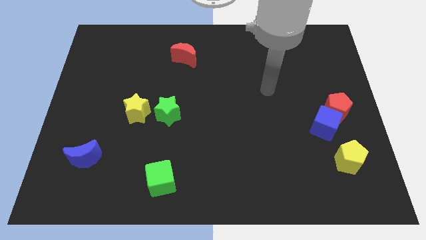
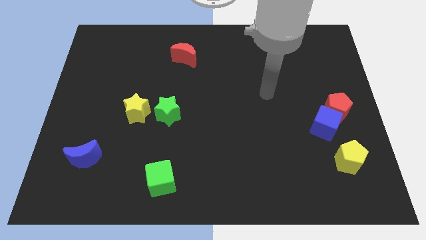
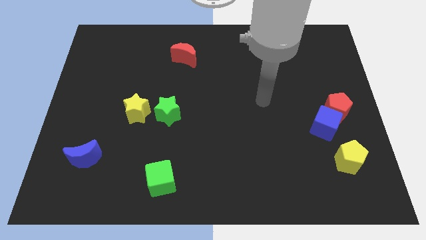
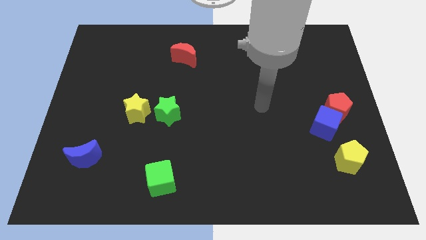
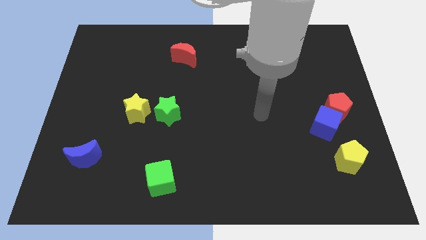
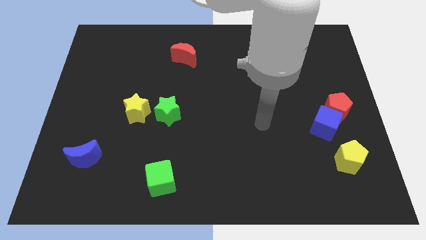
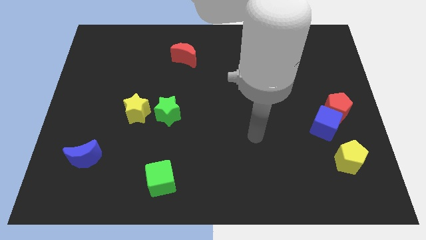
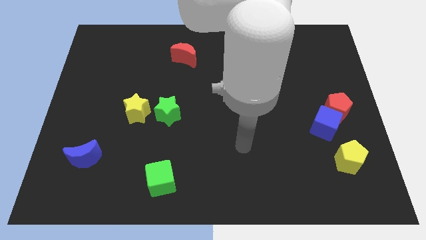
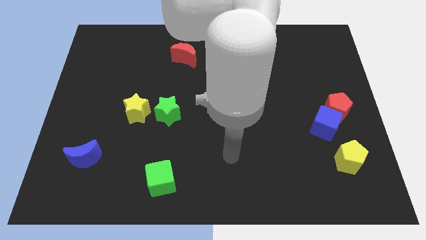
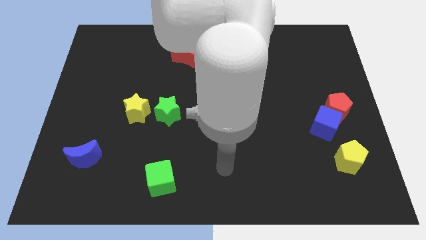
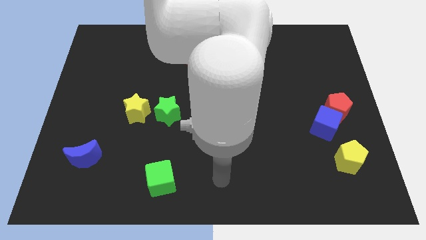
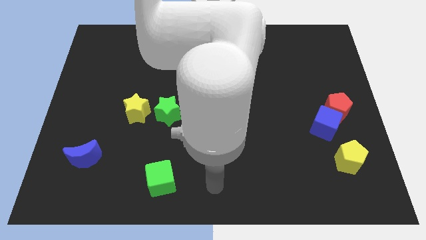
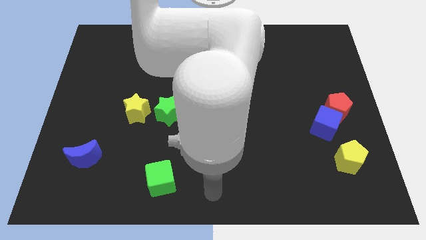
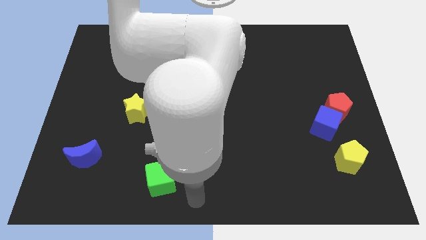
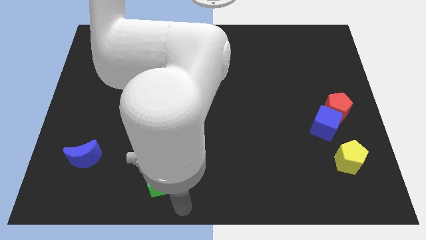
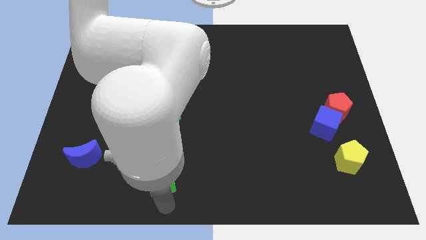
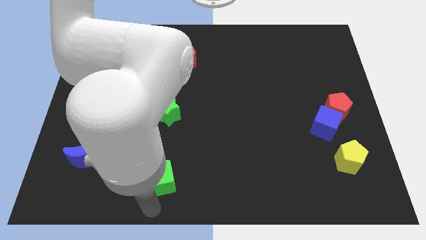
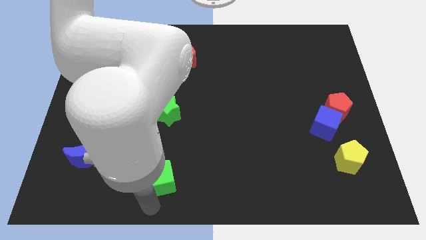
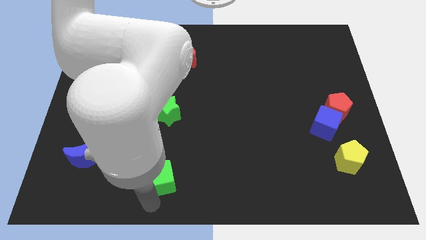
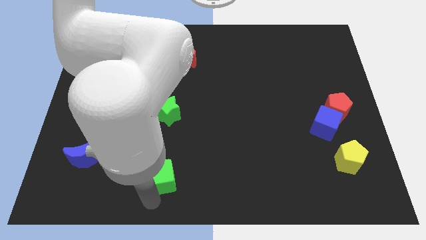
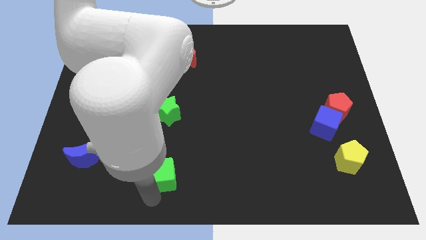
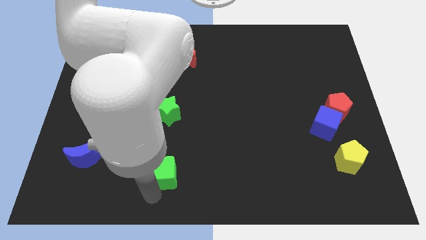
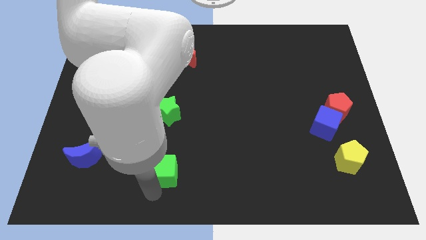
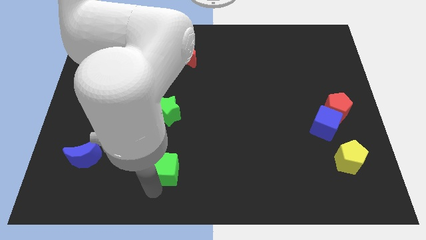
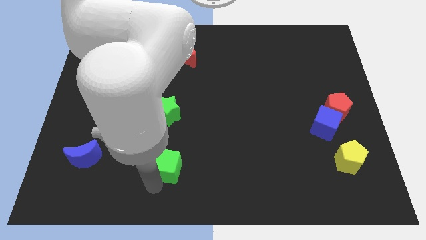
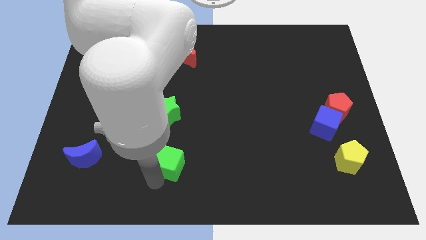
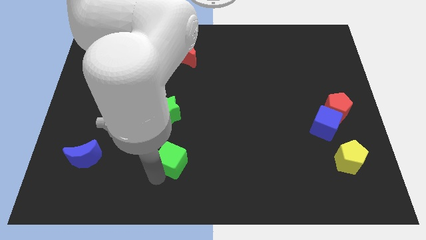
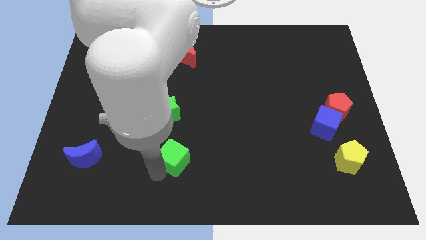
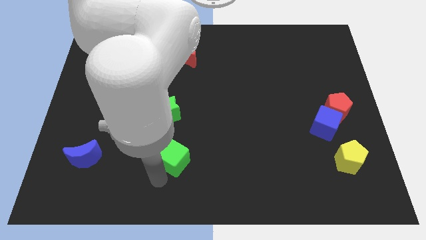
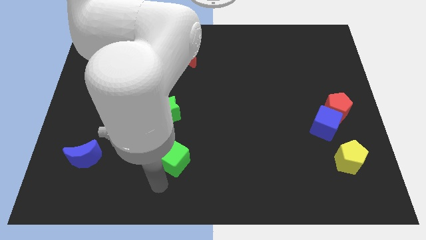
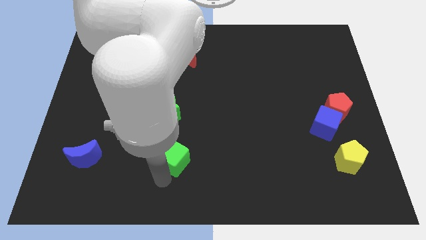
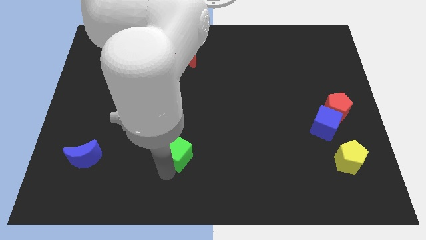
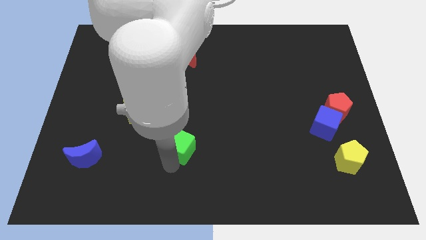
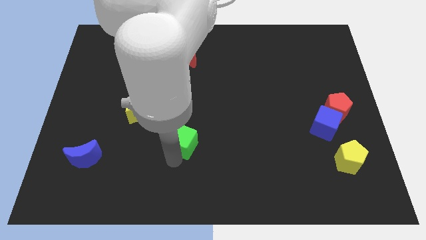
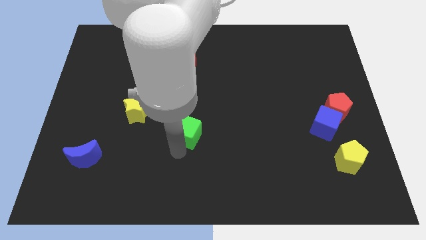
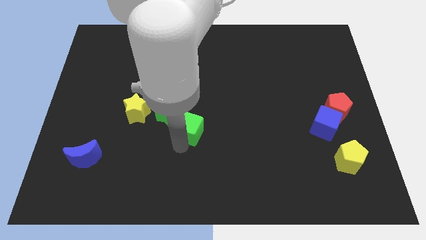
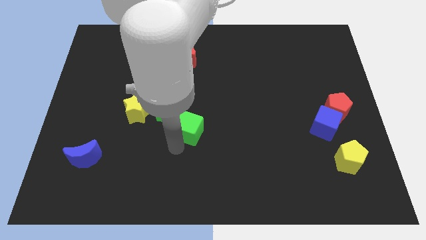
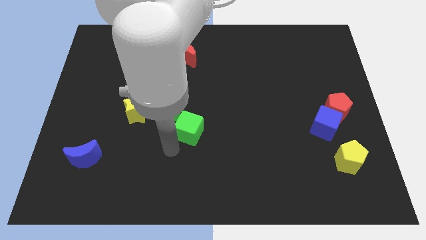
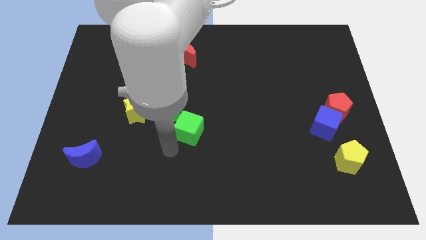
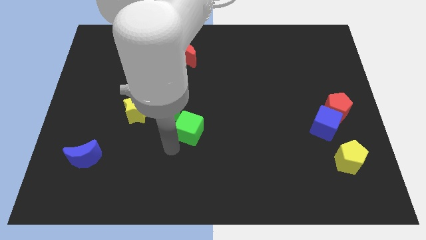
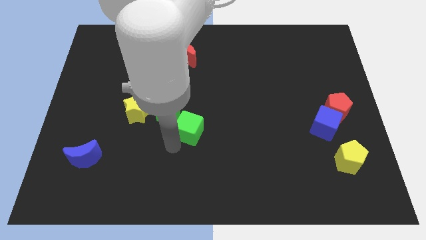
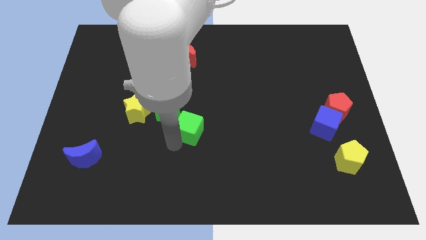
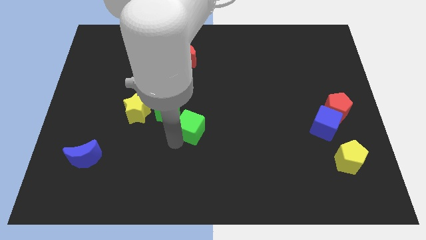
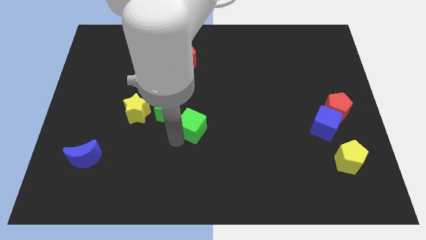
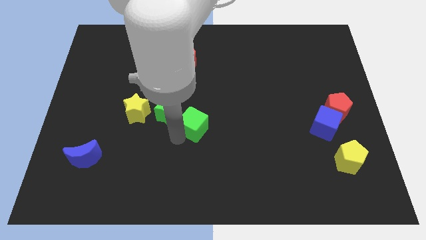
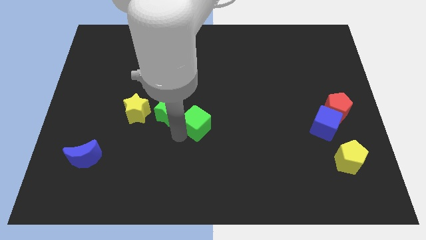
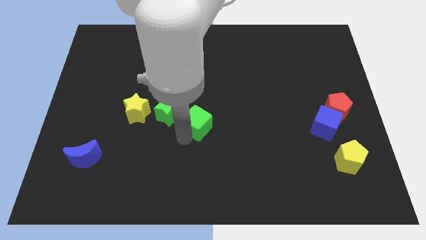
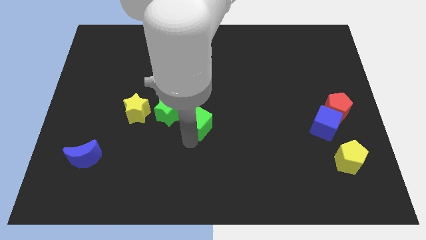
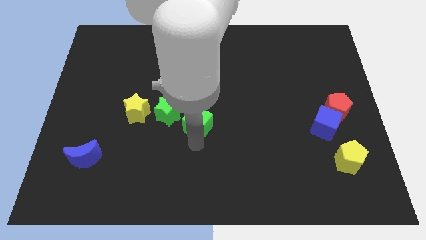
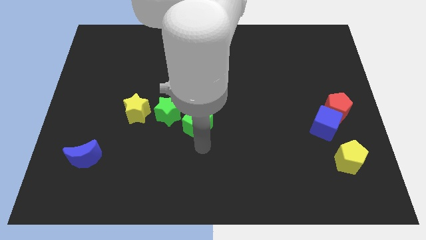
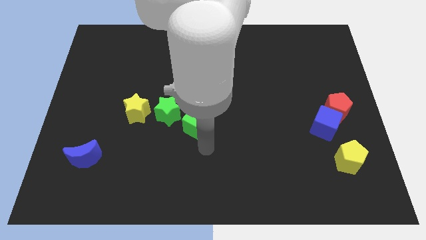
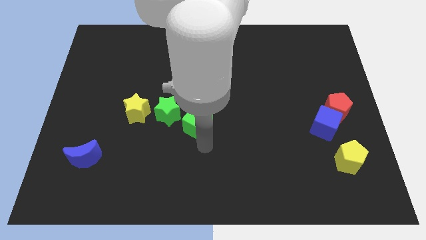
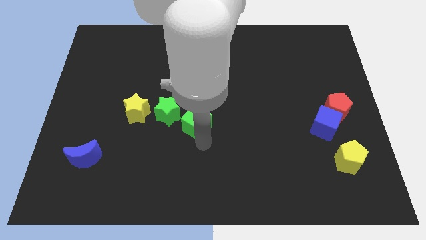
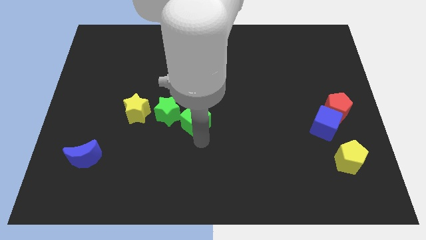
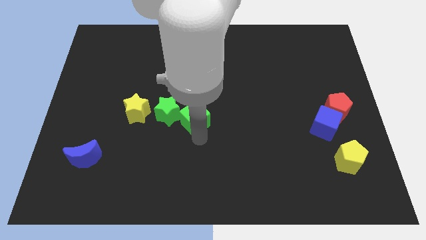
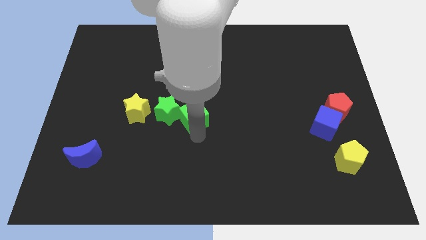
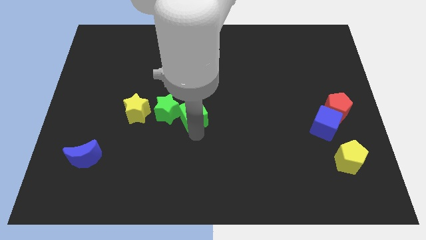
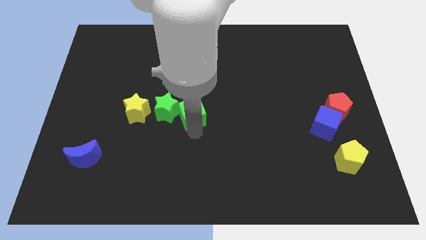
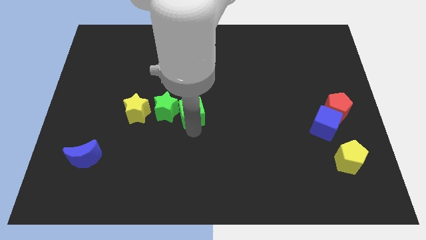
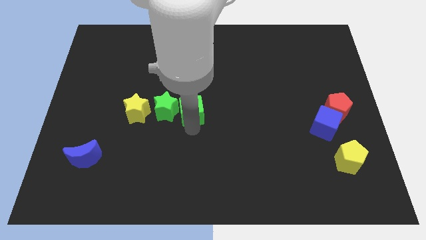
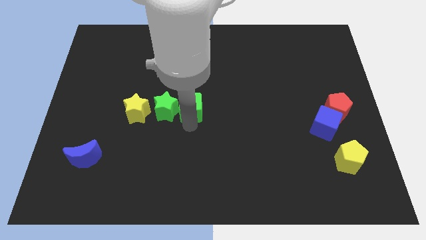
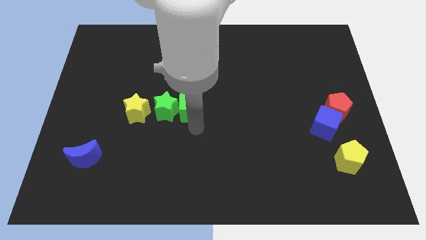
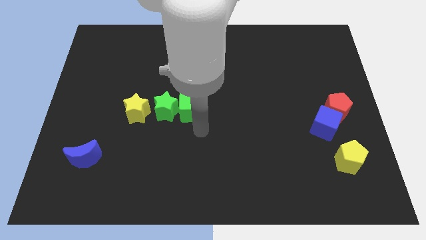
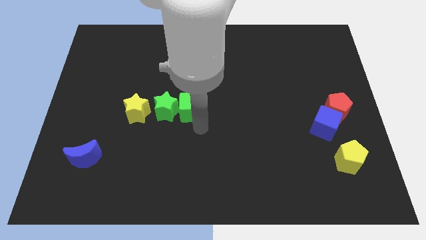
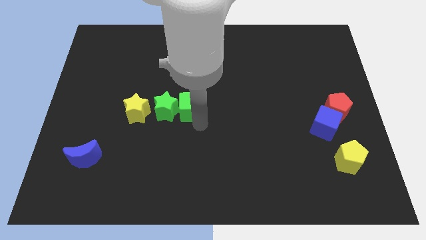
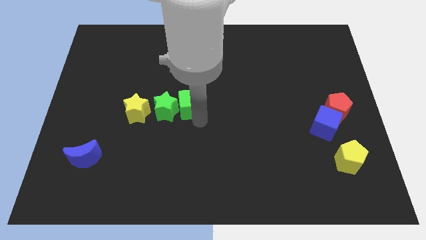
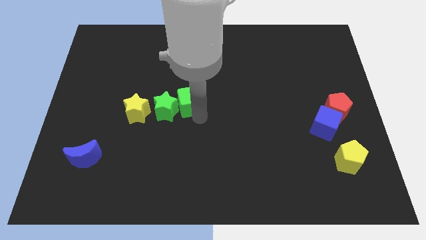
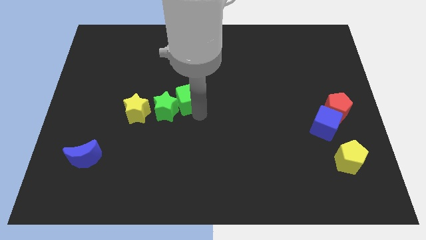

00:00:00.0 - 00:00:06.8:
move the green cube upwards

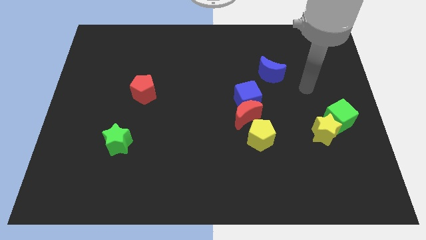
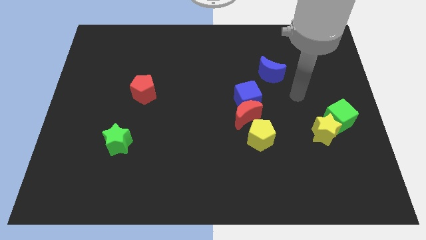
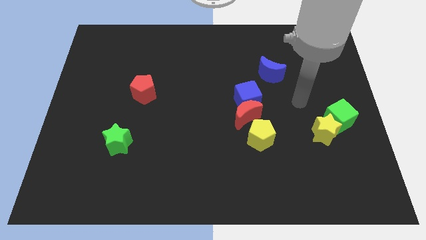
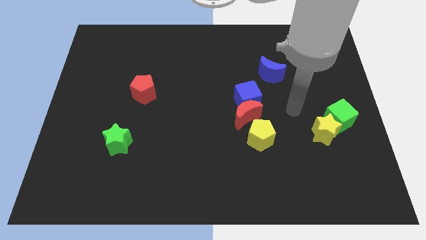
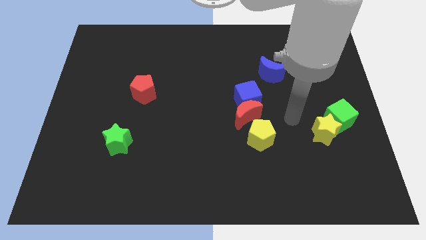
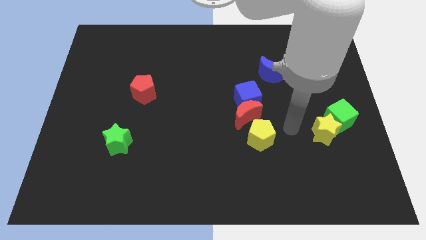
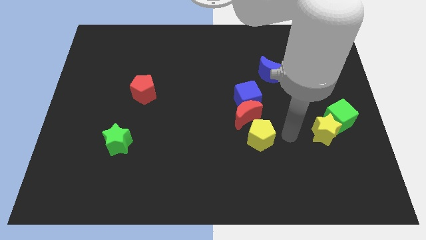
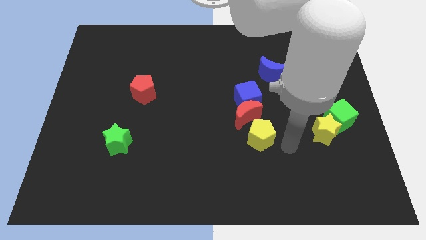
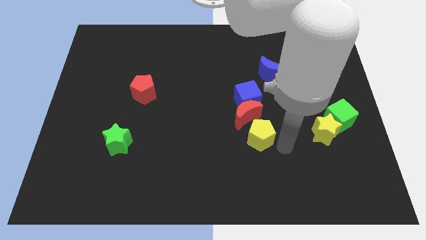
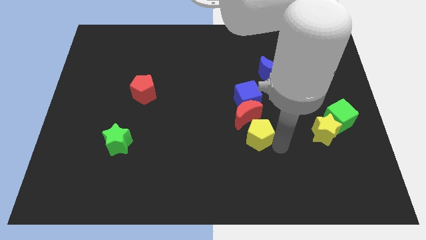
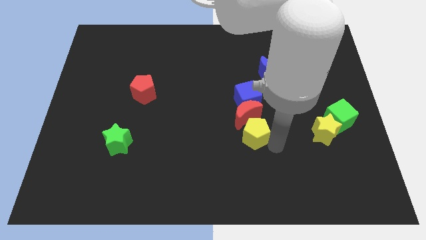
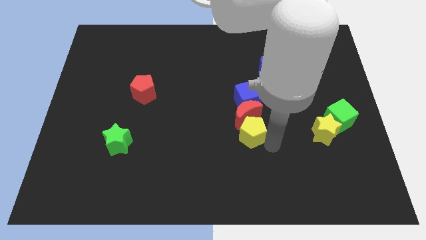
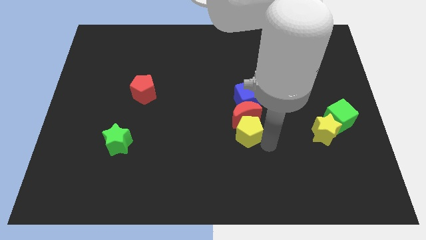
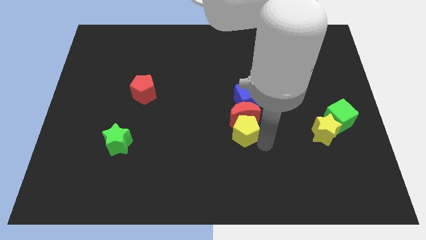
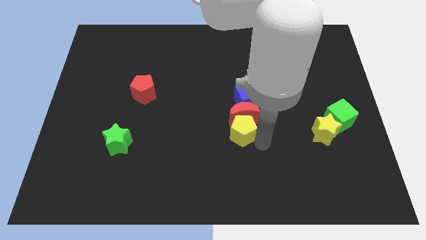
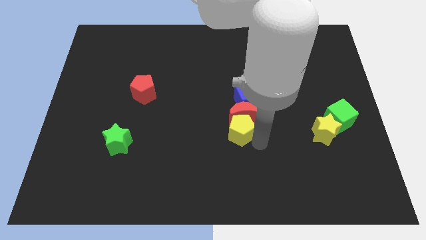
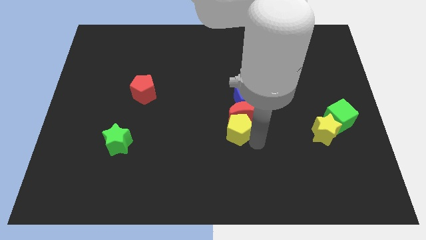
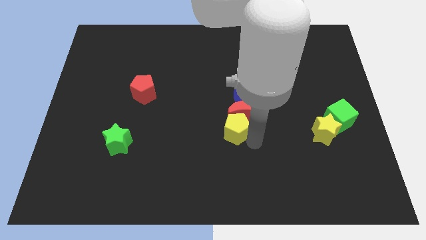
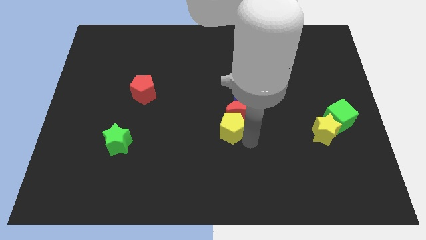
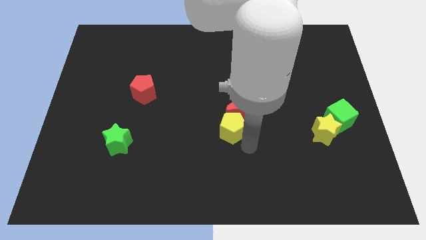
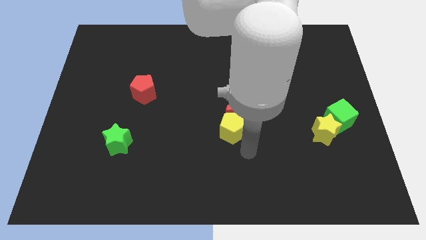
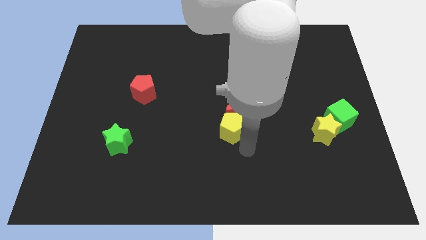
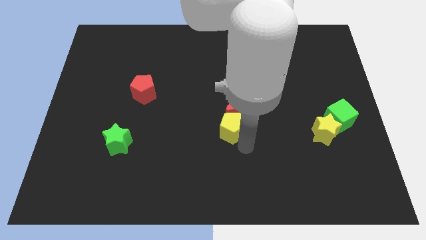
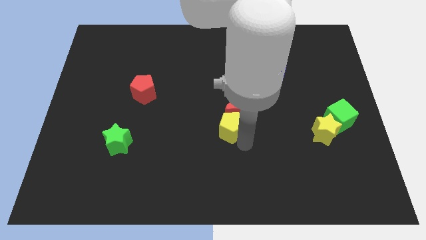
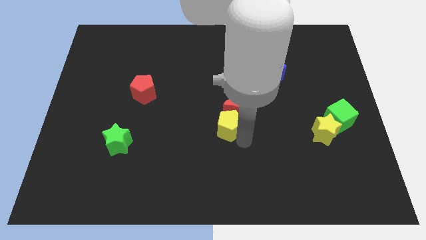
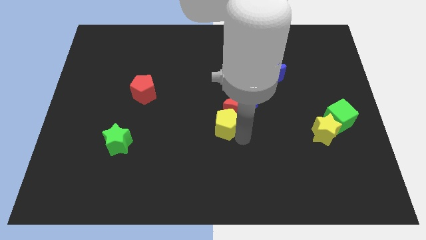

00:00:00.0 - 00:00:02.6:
slide the yellow pentagon a little upwards and to the left diagonally
